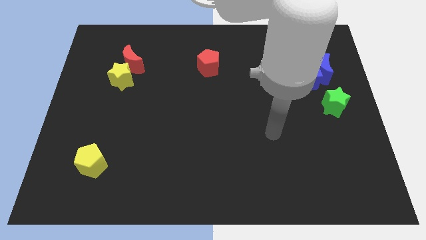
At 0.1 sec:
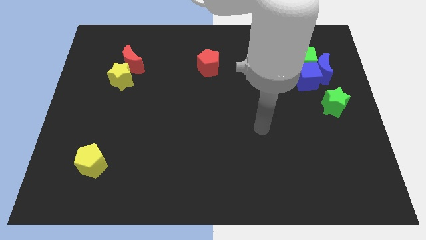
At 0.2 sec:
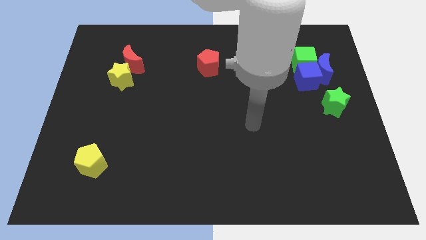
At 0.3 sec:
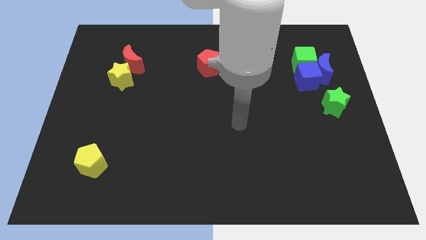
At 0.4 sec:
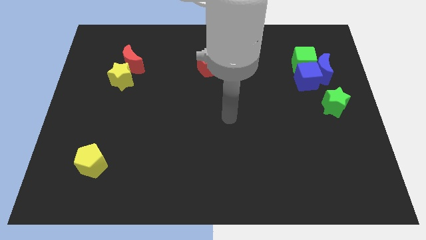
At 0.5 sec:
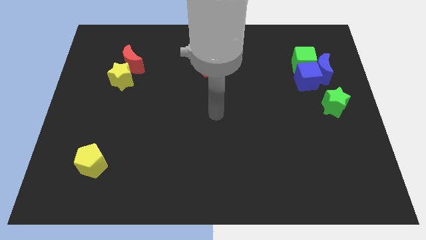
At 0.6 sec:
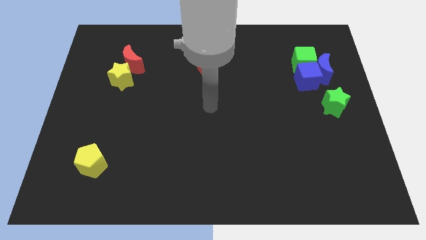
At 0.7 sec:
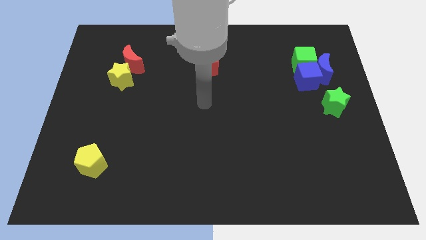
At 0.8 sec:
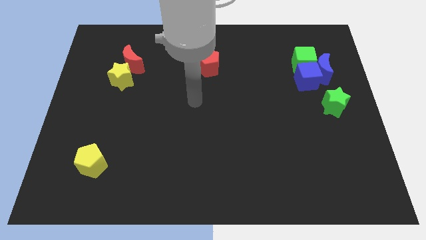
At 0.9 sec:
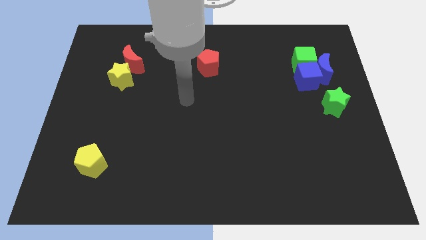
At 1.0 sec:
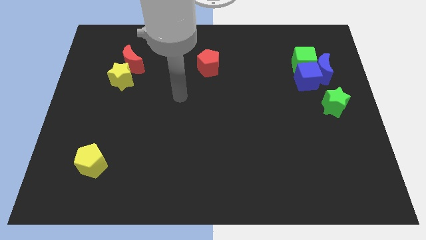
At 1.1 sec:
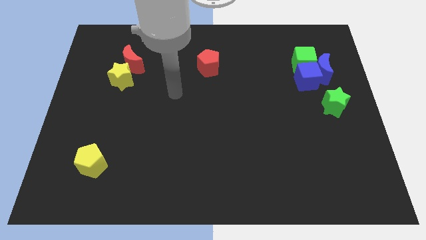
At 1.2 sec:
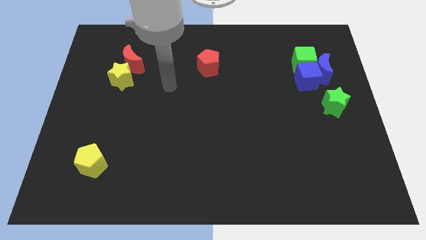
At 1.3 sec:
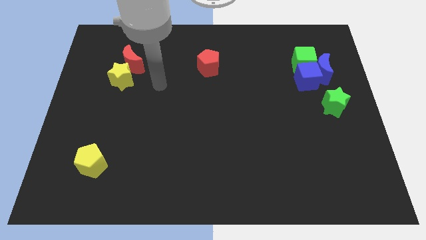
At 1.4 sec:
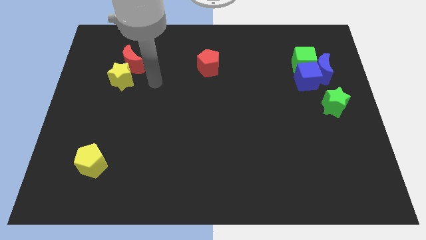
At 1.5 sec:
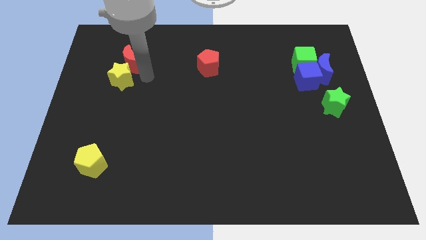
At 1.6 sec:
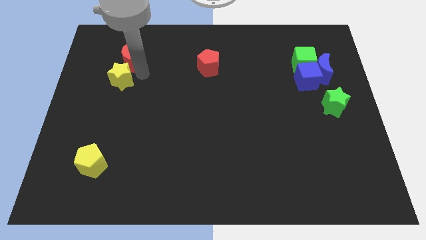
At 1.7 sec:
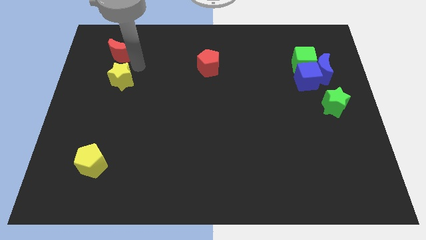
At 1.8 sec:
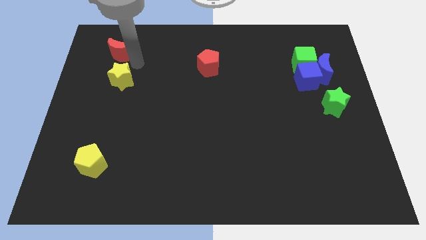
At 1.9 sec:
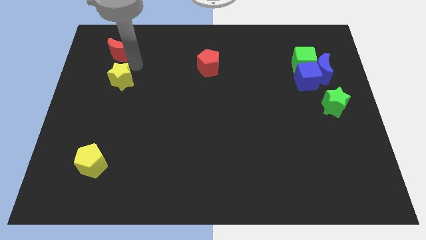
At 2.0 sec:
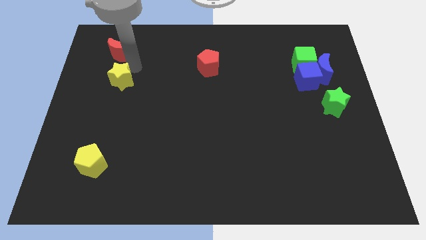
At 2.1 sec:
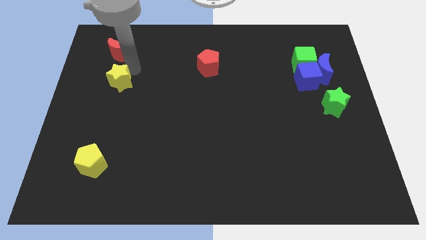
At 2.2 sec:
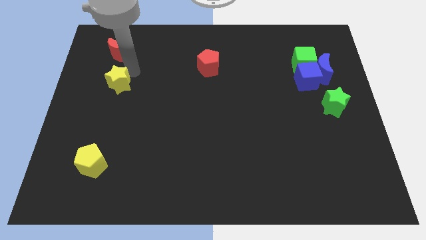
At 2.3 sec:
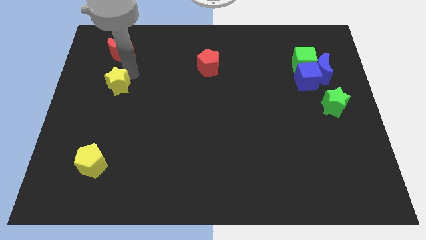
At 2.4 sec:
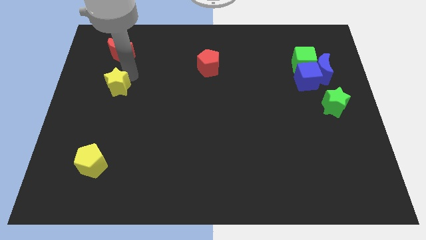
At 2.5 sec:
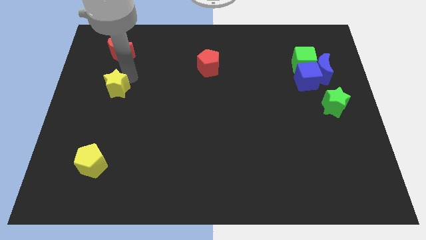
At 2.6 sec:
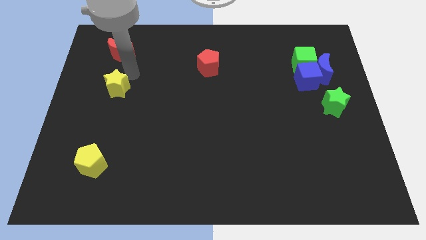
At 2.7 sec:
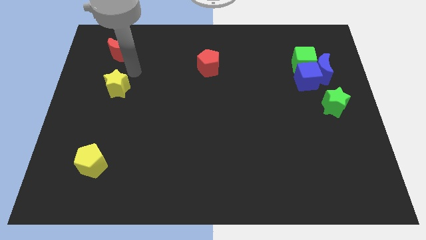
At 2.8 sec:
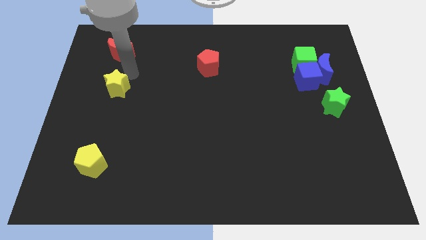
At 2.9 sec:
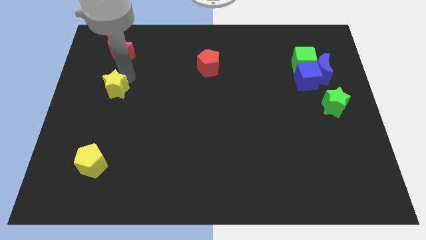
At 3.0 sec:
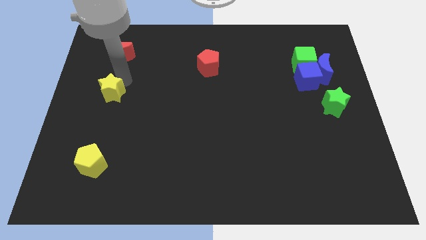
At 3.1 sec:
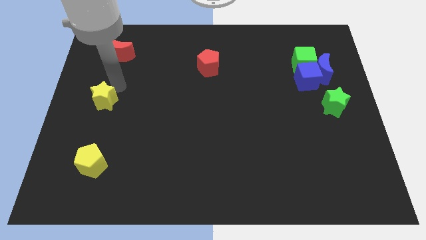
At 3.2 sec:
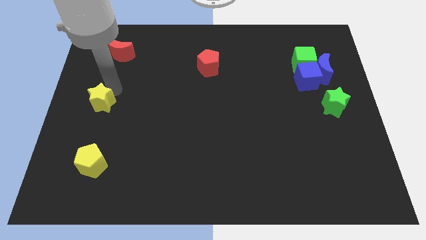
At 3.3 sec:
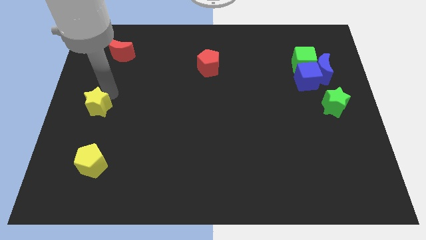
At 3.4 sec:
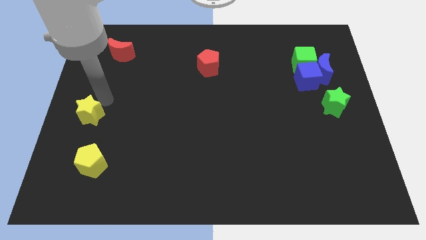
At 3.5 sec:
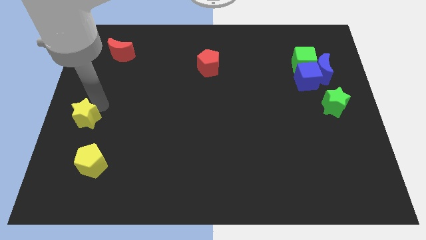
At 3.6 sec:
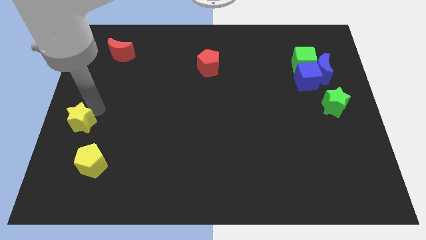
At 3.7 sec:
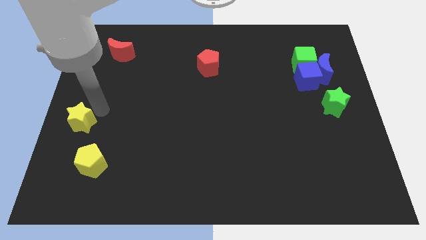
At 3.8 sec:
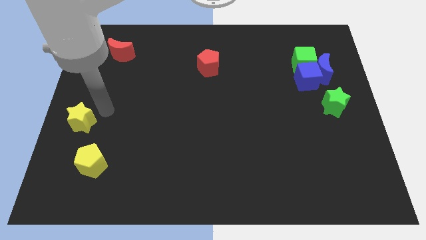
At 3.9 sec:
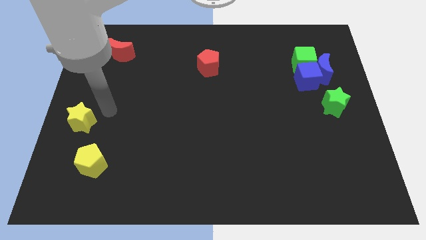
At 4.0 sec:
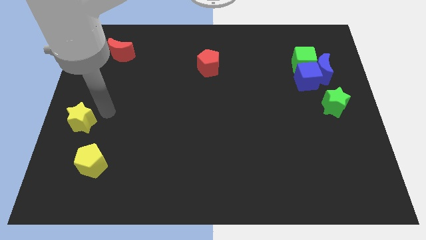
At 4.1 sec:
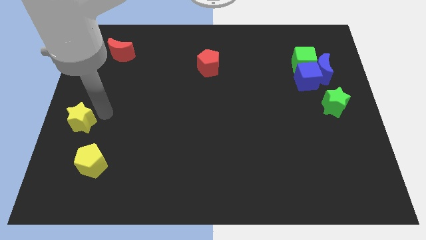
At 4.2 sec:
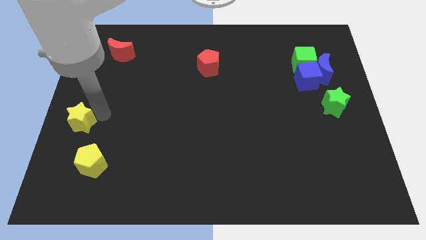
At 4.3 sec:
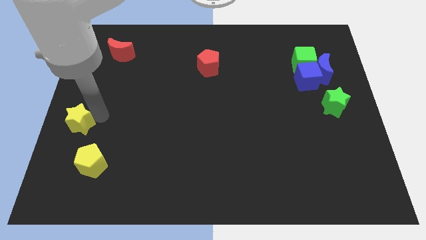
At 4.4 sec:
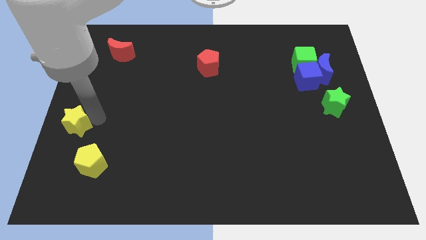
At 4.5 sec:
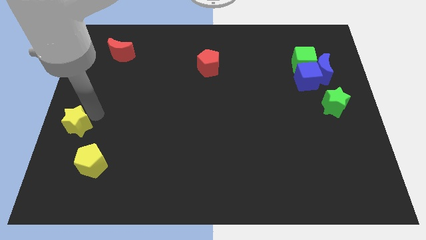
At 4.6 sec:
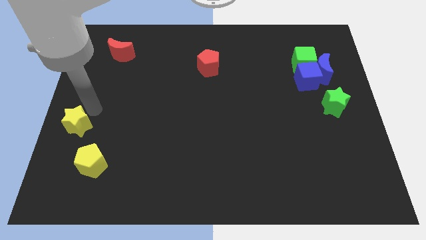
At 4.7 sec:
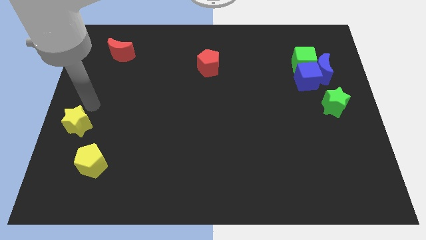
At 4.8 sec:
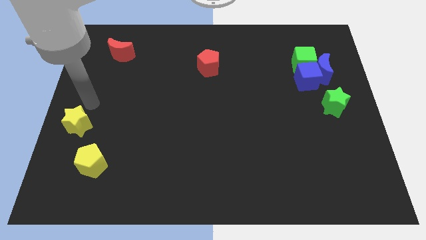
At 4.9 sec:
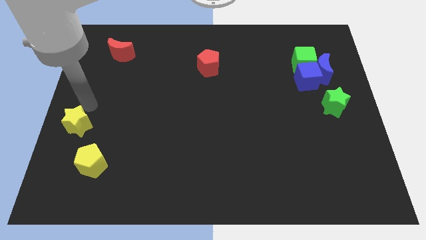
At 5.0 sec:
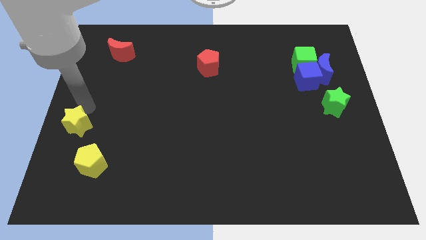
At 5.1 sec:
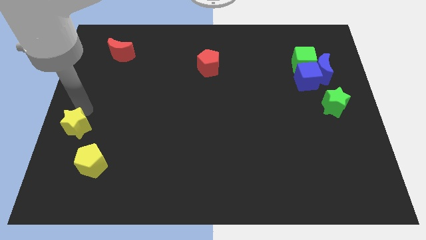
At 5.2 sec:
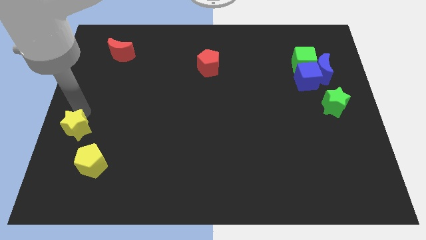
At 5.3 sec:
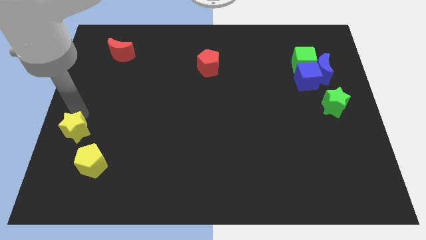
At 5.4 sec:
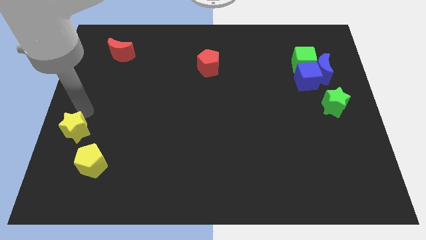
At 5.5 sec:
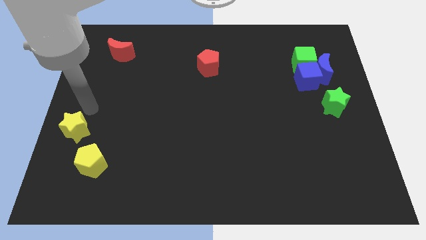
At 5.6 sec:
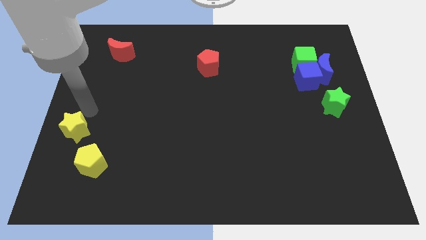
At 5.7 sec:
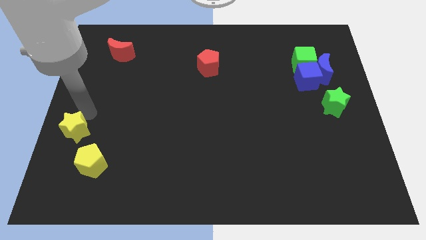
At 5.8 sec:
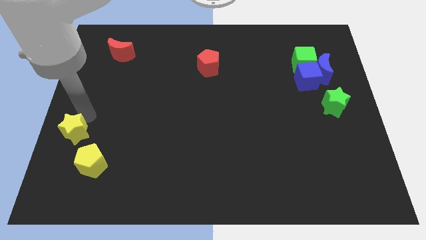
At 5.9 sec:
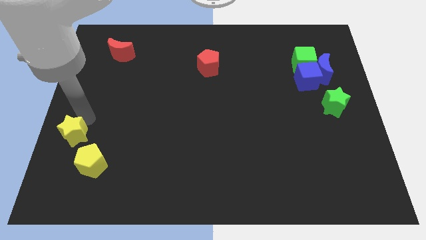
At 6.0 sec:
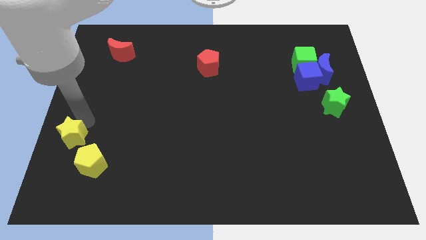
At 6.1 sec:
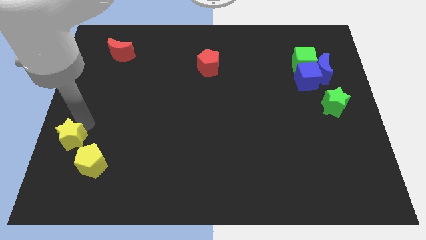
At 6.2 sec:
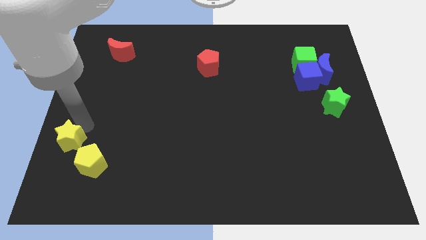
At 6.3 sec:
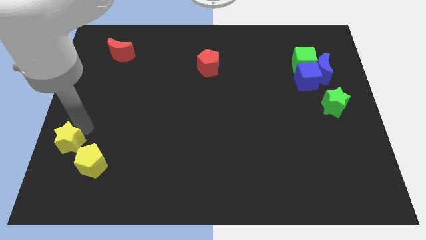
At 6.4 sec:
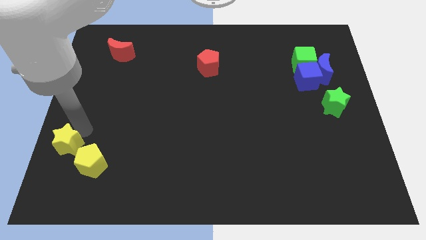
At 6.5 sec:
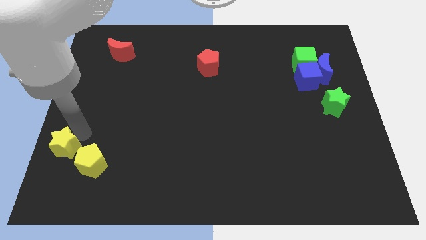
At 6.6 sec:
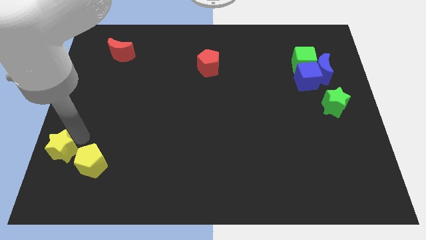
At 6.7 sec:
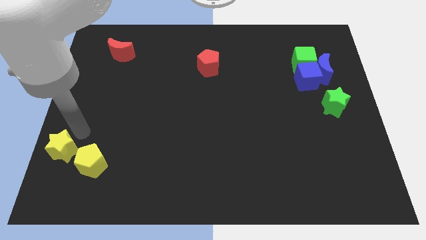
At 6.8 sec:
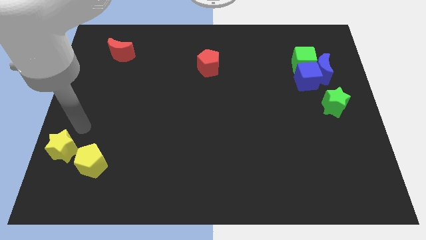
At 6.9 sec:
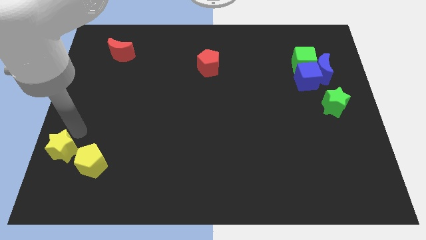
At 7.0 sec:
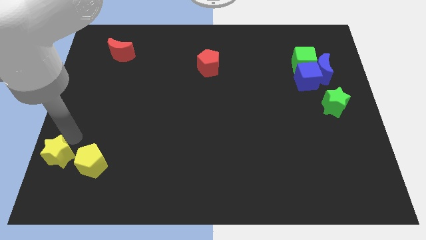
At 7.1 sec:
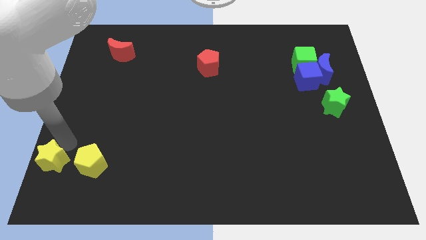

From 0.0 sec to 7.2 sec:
push the yellow star to the lower left corner

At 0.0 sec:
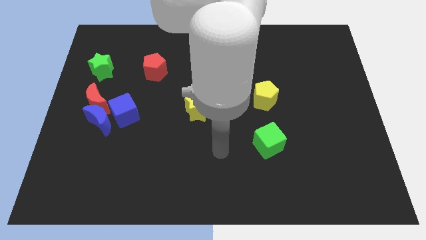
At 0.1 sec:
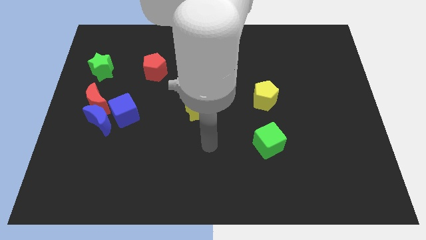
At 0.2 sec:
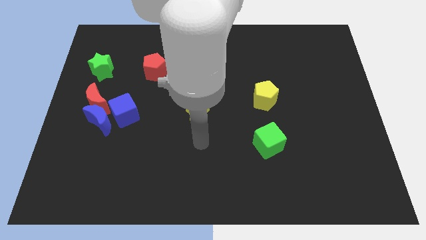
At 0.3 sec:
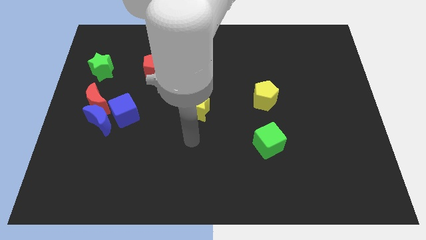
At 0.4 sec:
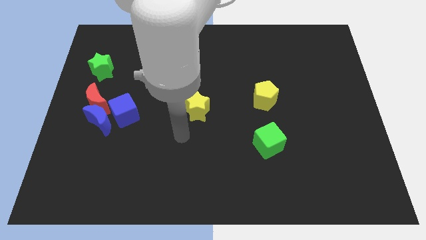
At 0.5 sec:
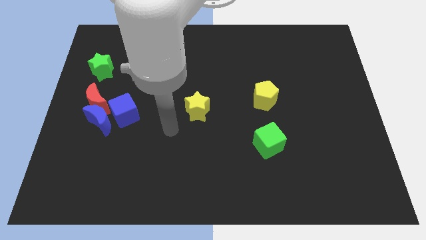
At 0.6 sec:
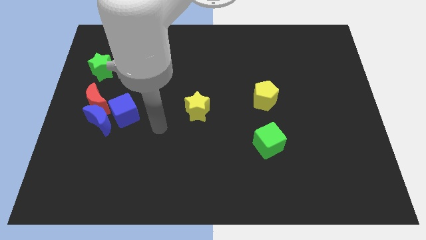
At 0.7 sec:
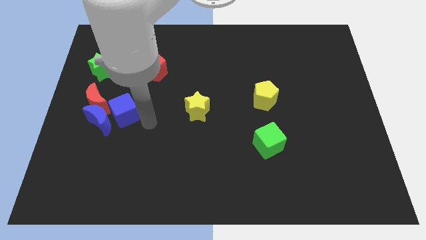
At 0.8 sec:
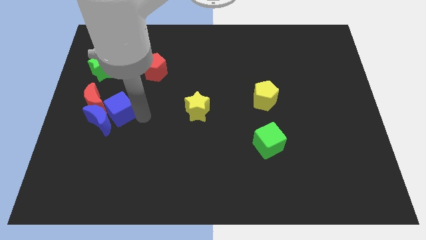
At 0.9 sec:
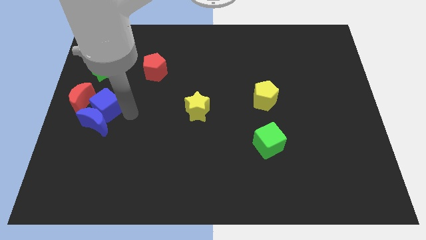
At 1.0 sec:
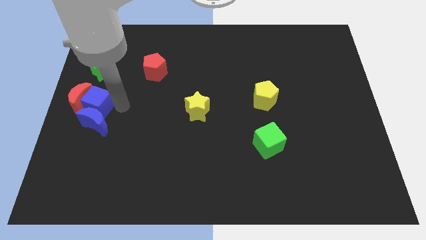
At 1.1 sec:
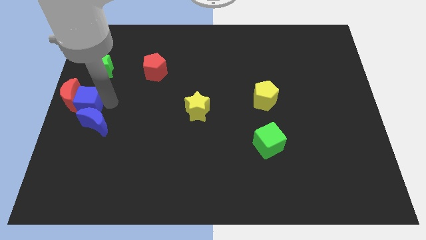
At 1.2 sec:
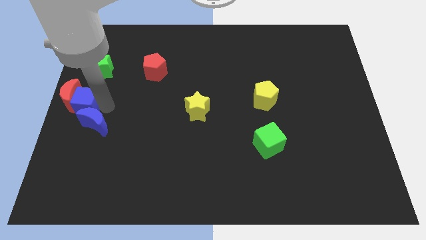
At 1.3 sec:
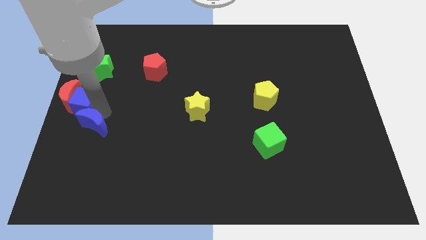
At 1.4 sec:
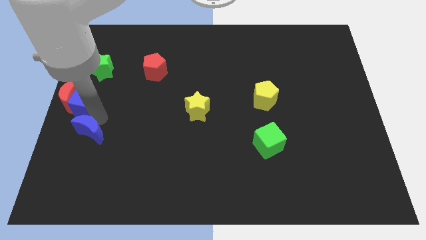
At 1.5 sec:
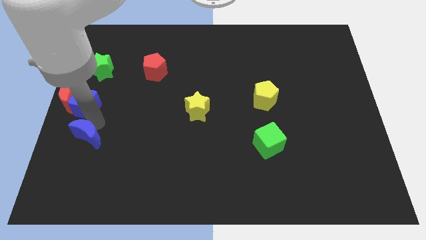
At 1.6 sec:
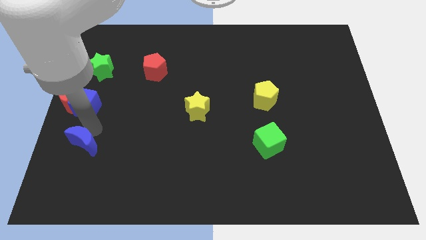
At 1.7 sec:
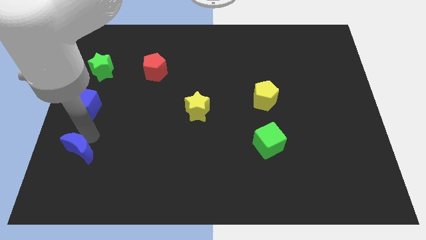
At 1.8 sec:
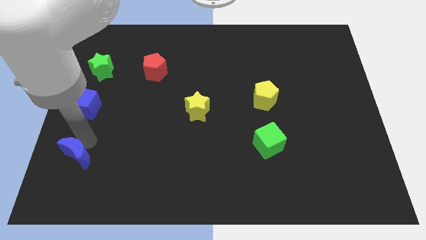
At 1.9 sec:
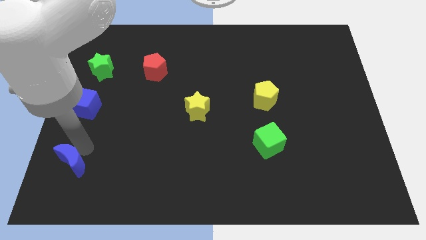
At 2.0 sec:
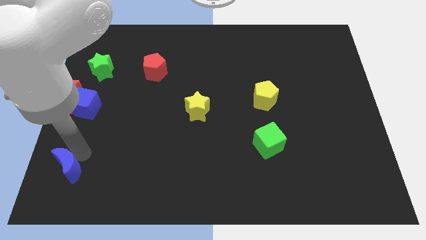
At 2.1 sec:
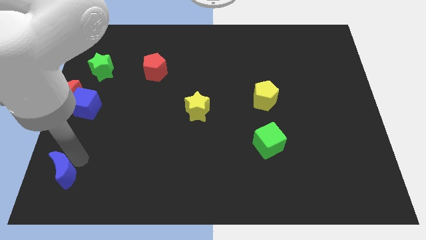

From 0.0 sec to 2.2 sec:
slide the blue moon to the bottom left
